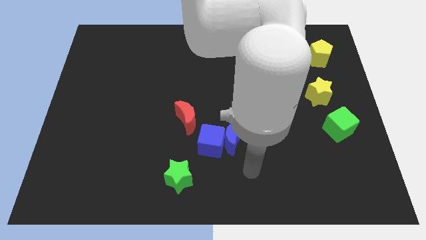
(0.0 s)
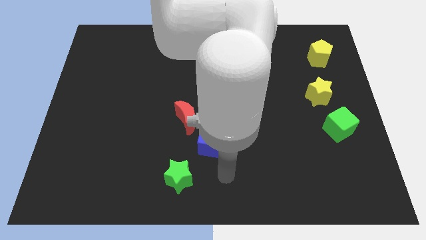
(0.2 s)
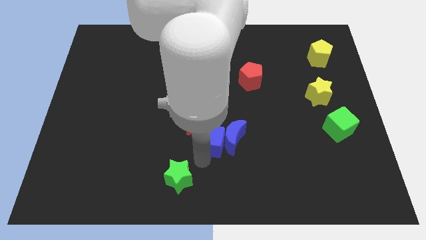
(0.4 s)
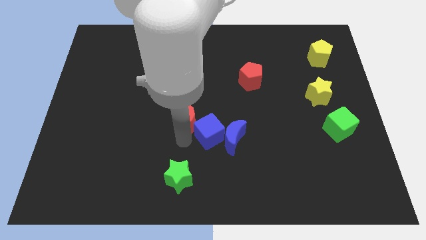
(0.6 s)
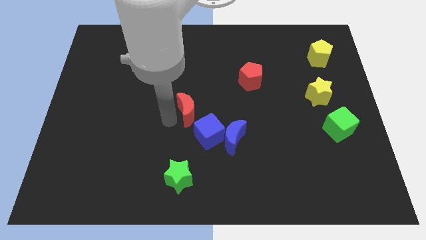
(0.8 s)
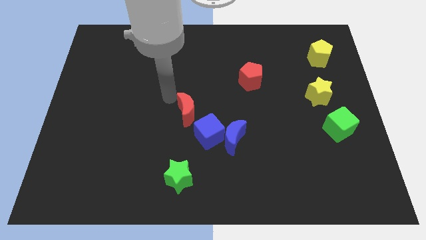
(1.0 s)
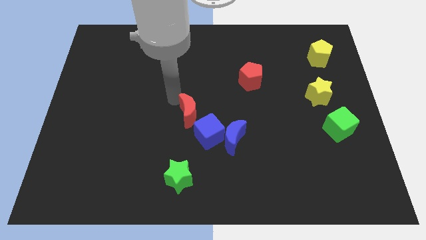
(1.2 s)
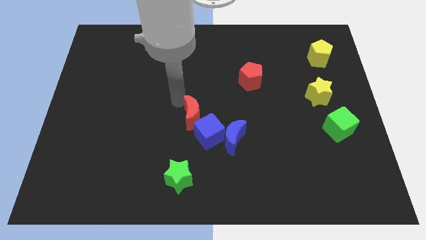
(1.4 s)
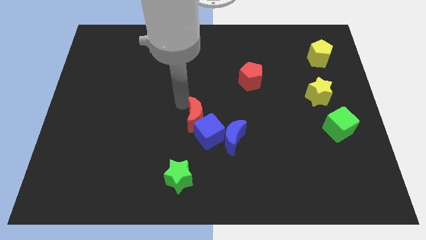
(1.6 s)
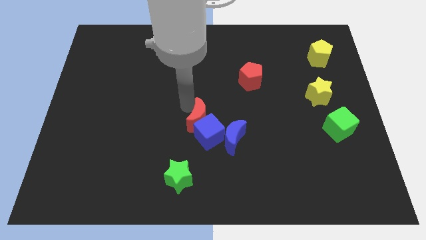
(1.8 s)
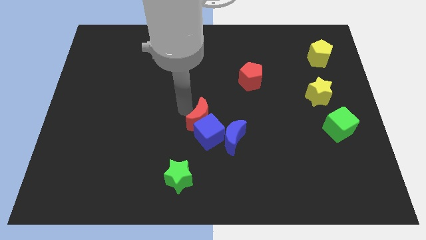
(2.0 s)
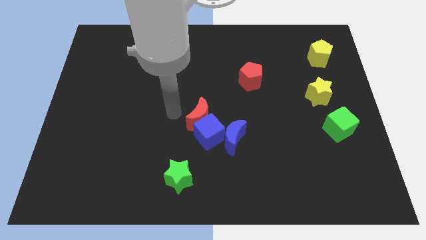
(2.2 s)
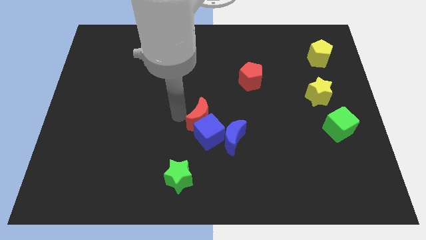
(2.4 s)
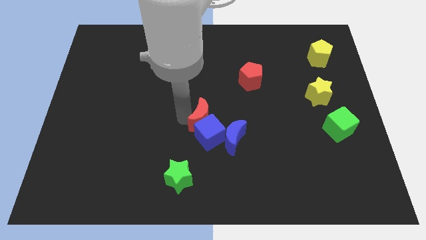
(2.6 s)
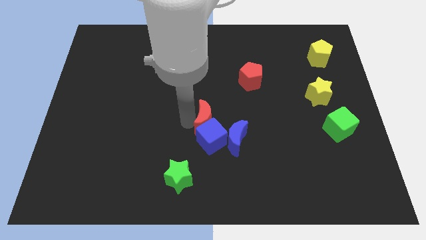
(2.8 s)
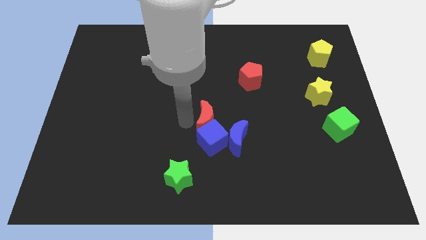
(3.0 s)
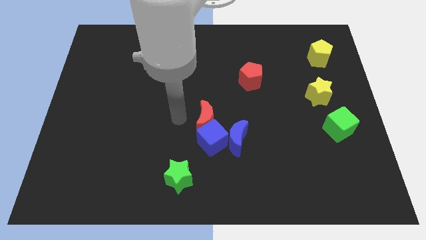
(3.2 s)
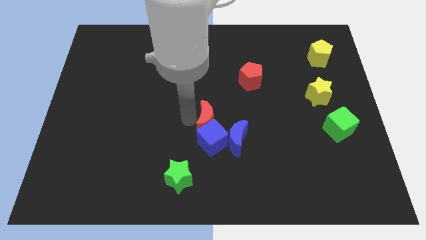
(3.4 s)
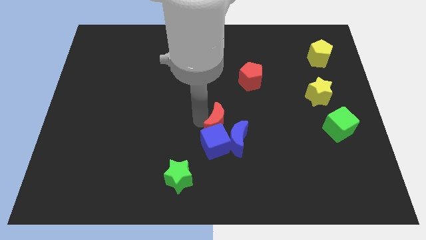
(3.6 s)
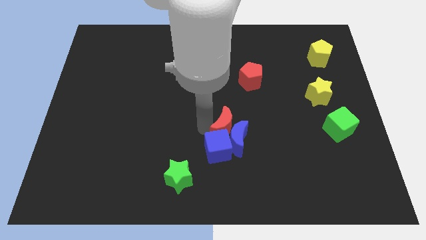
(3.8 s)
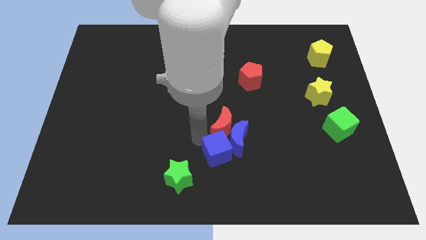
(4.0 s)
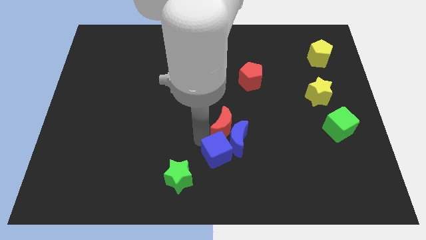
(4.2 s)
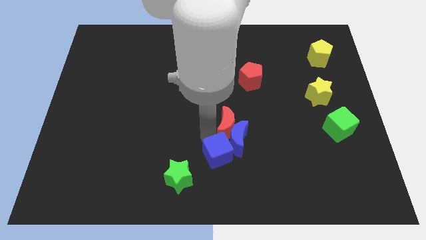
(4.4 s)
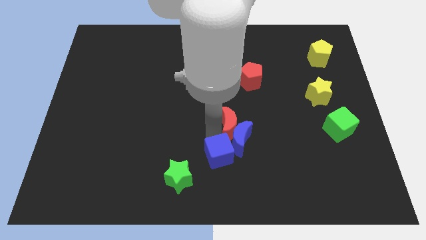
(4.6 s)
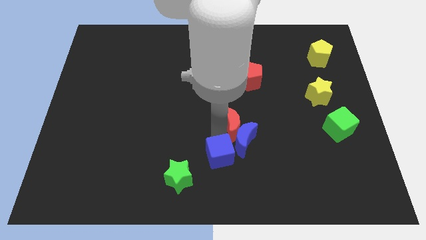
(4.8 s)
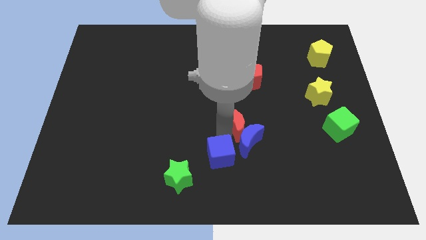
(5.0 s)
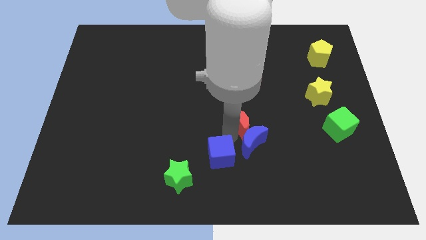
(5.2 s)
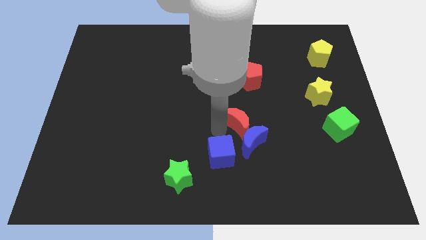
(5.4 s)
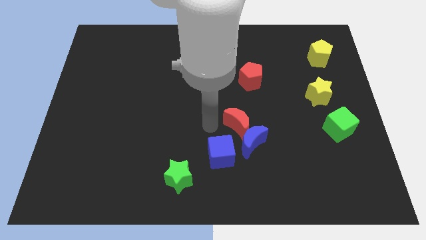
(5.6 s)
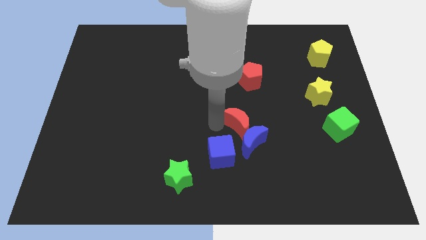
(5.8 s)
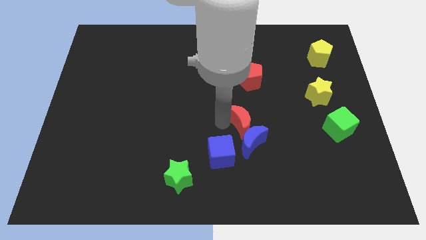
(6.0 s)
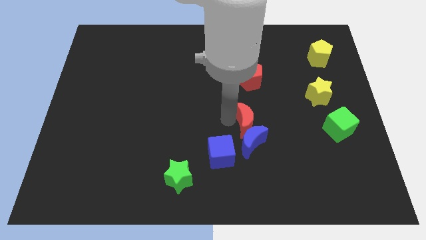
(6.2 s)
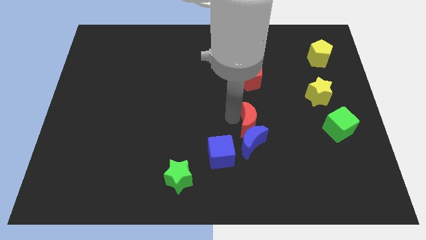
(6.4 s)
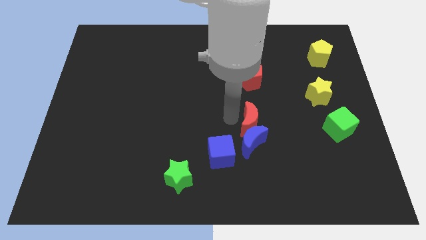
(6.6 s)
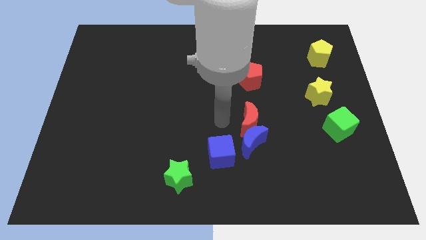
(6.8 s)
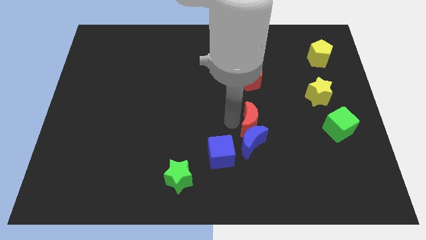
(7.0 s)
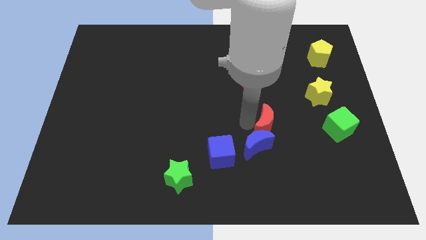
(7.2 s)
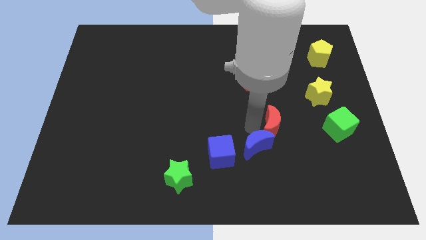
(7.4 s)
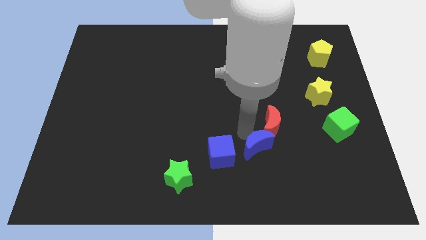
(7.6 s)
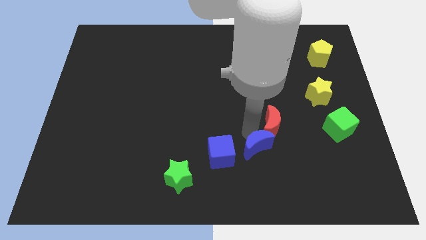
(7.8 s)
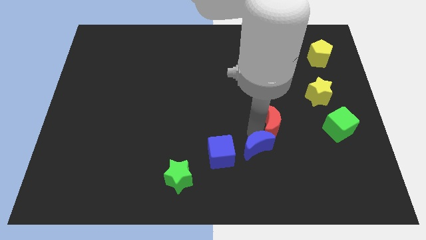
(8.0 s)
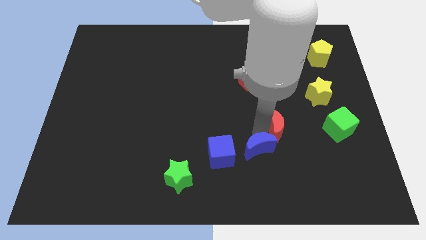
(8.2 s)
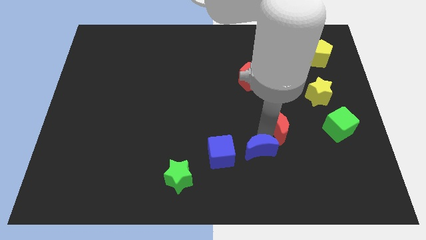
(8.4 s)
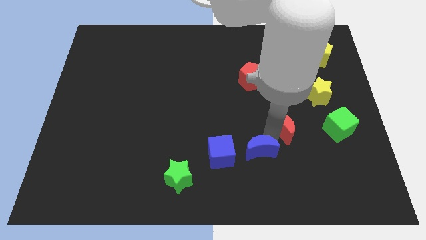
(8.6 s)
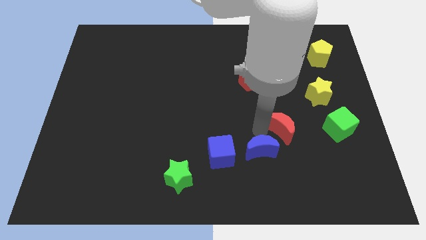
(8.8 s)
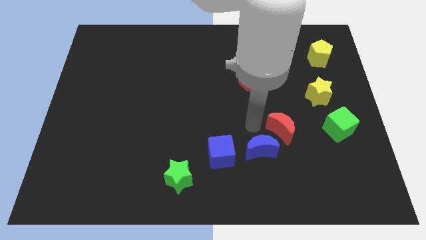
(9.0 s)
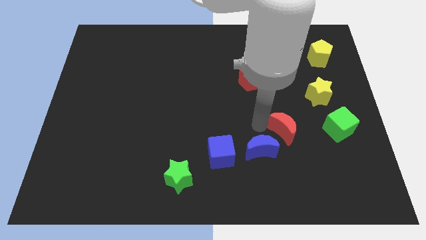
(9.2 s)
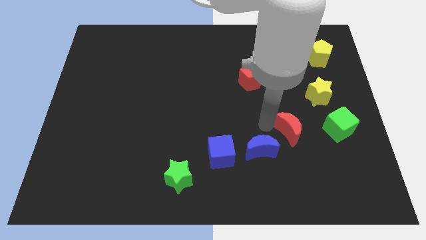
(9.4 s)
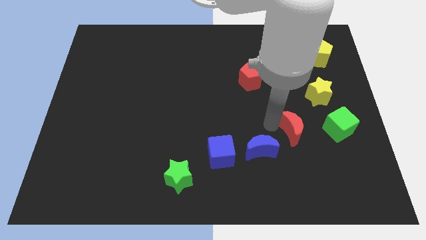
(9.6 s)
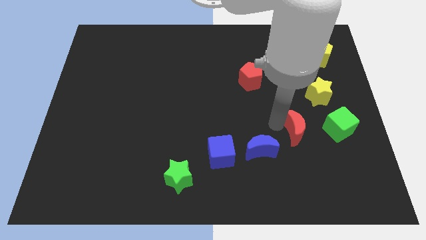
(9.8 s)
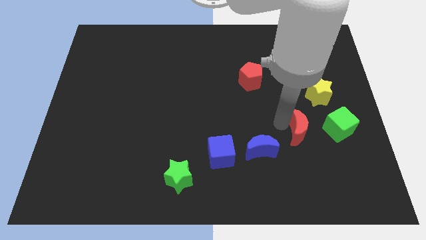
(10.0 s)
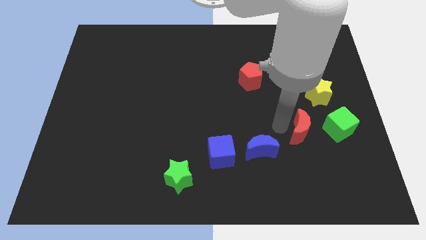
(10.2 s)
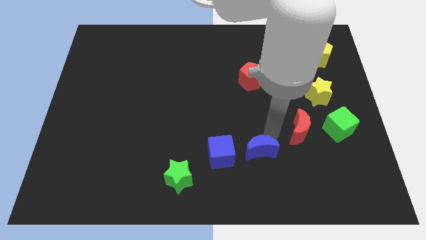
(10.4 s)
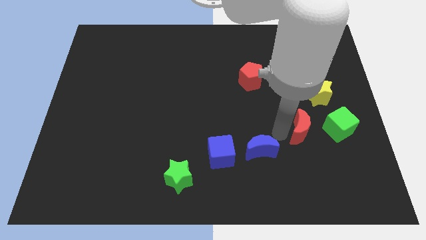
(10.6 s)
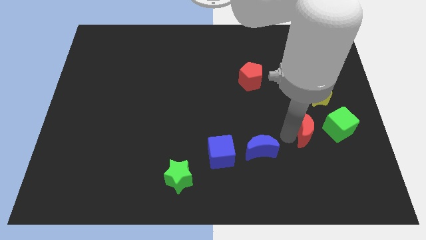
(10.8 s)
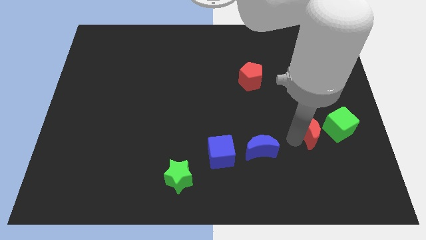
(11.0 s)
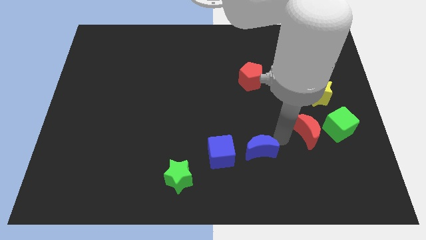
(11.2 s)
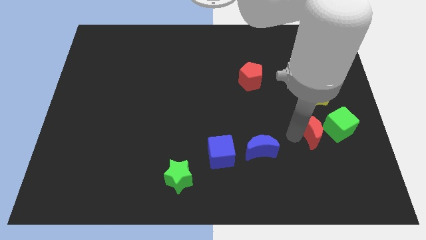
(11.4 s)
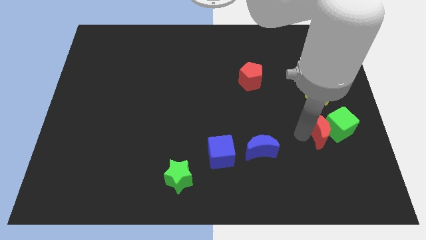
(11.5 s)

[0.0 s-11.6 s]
slide the red moon close to the green cube

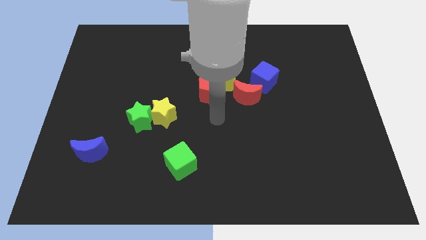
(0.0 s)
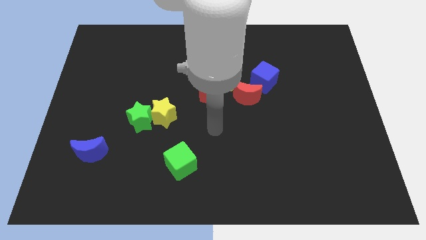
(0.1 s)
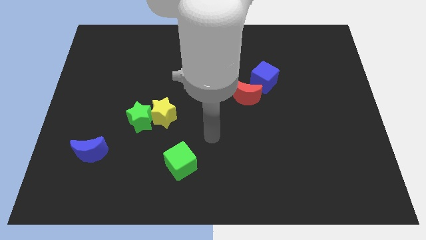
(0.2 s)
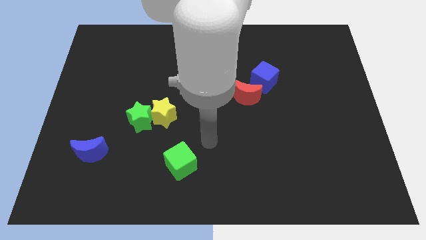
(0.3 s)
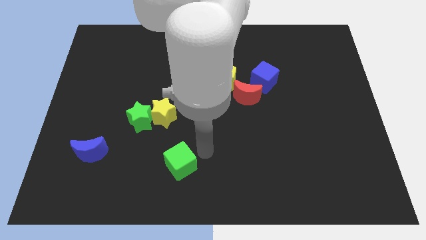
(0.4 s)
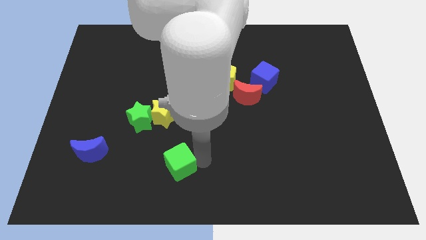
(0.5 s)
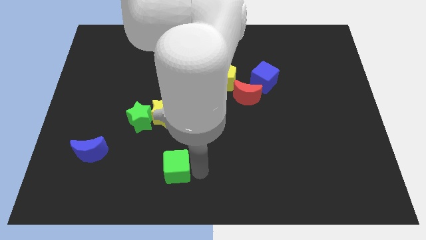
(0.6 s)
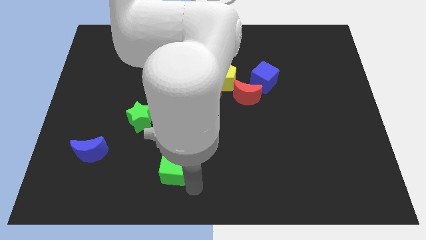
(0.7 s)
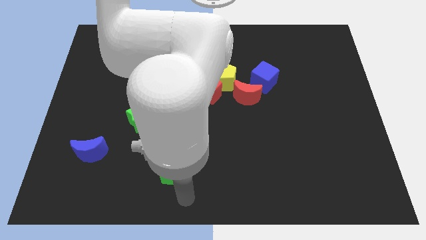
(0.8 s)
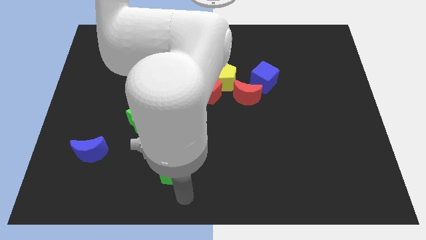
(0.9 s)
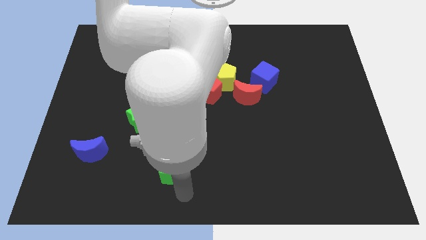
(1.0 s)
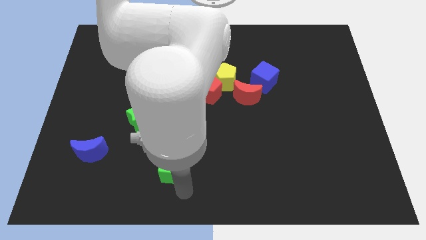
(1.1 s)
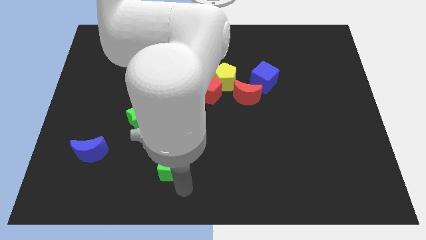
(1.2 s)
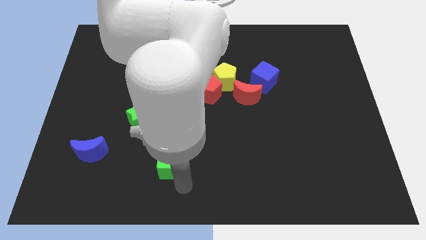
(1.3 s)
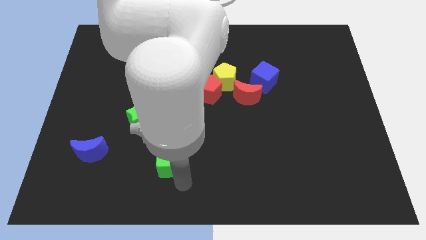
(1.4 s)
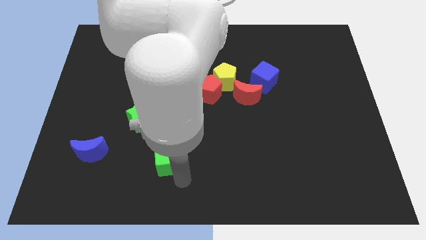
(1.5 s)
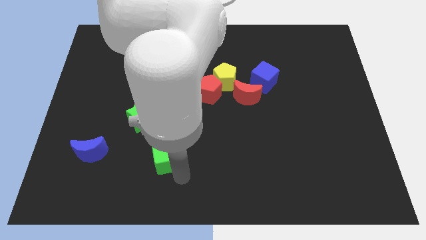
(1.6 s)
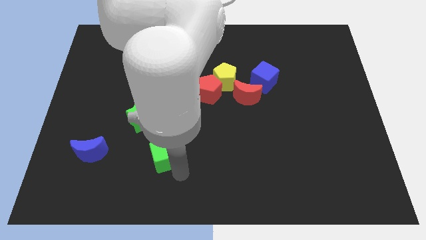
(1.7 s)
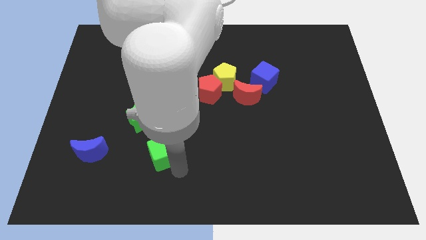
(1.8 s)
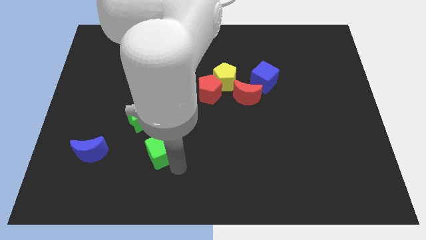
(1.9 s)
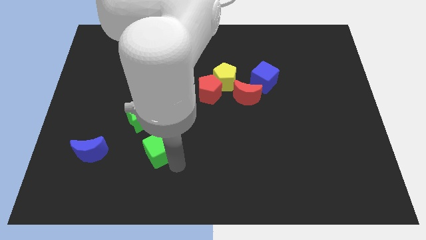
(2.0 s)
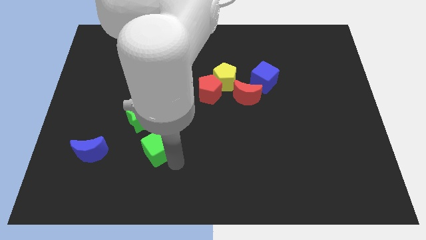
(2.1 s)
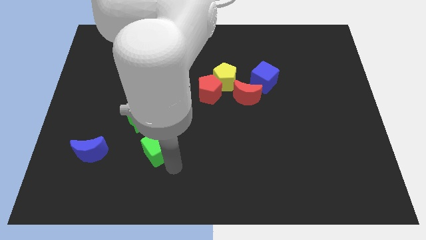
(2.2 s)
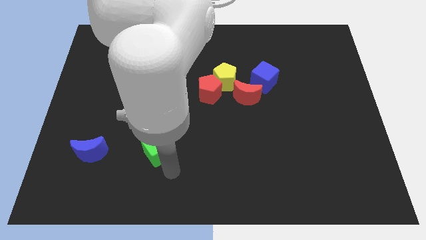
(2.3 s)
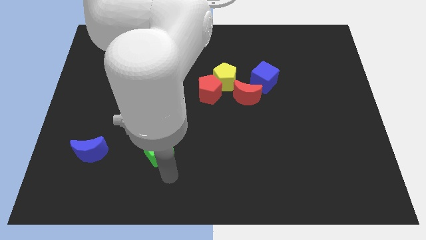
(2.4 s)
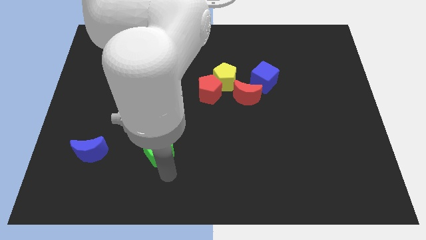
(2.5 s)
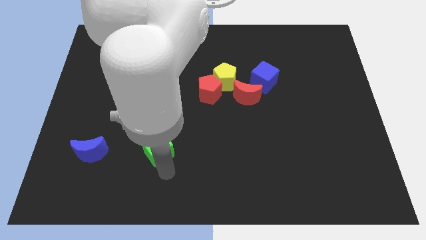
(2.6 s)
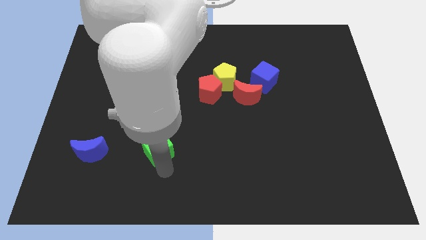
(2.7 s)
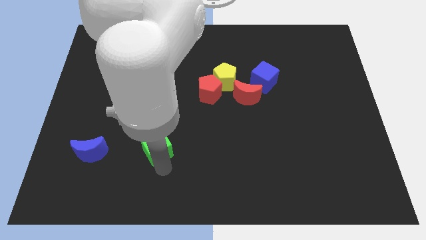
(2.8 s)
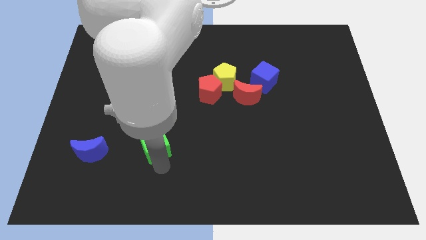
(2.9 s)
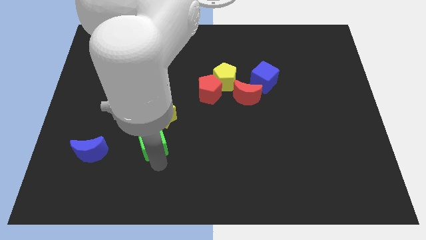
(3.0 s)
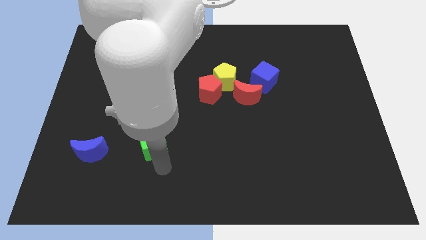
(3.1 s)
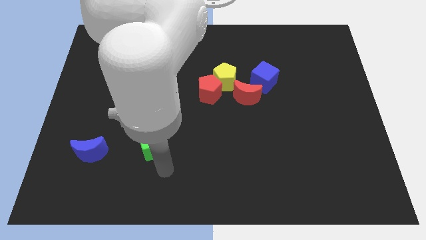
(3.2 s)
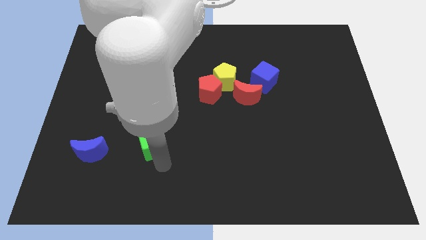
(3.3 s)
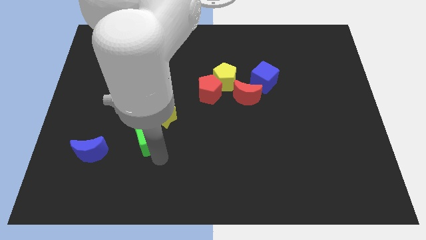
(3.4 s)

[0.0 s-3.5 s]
push the green cube towards the green star
